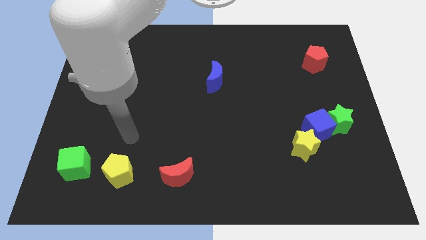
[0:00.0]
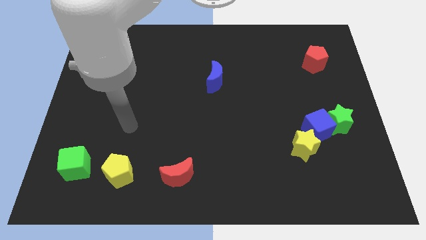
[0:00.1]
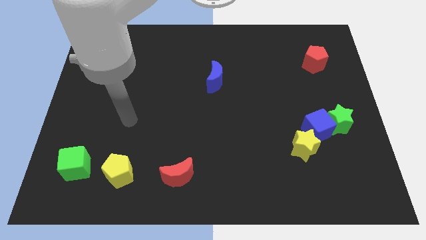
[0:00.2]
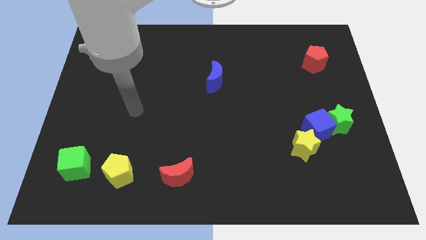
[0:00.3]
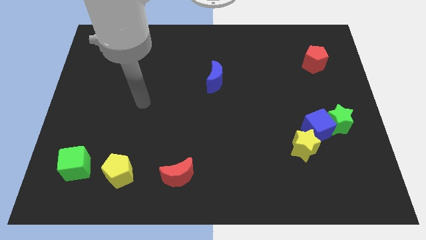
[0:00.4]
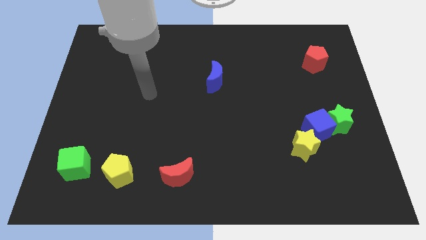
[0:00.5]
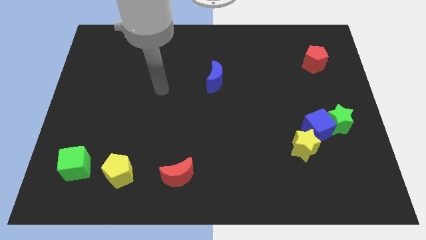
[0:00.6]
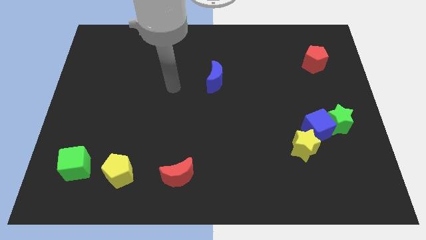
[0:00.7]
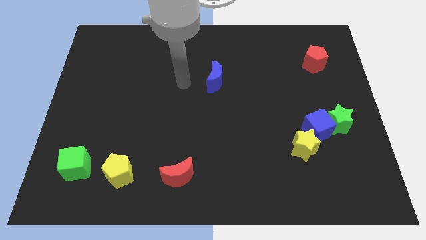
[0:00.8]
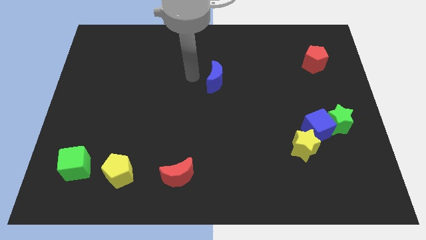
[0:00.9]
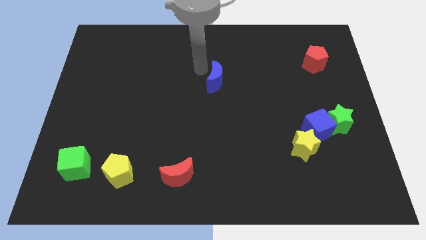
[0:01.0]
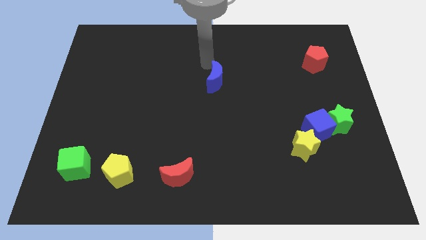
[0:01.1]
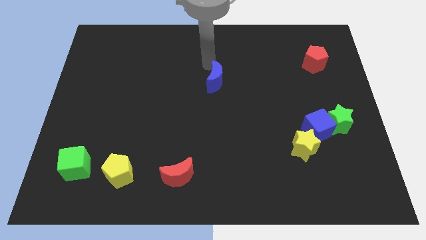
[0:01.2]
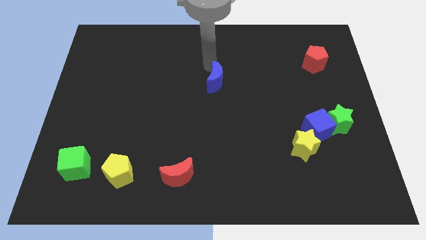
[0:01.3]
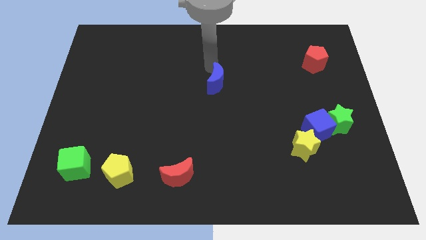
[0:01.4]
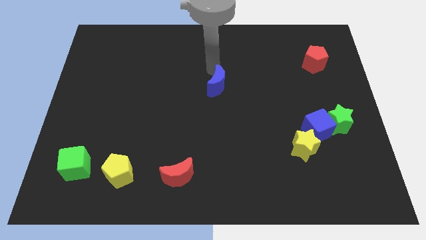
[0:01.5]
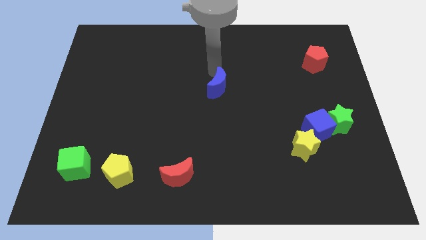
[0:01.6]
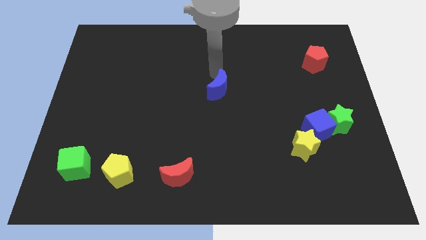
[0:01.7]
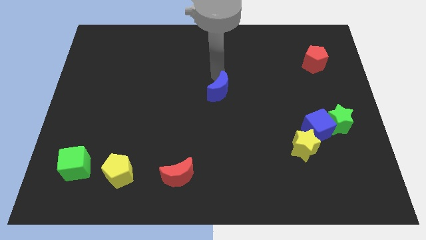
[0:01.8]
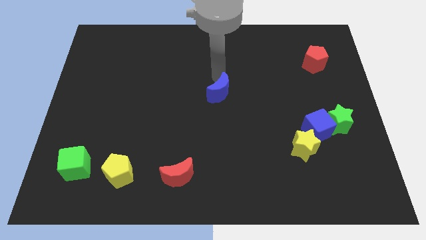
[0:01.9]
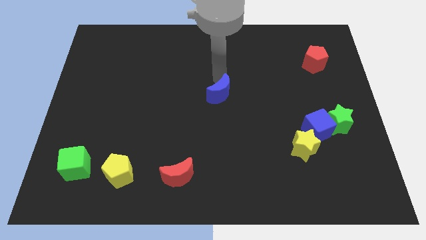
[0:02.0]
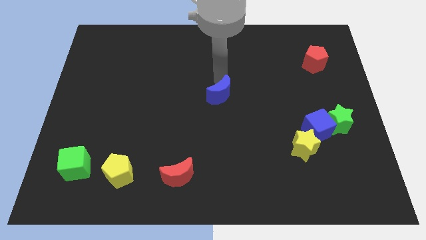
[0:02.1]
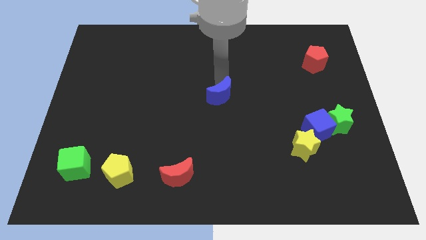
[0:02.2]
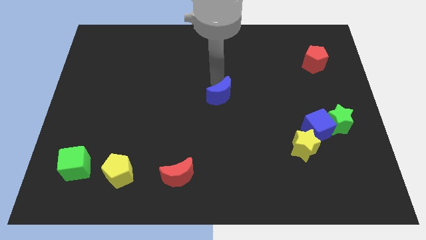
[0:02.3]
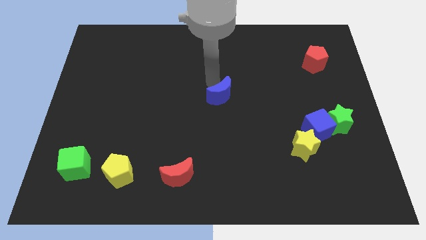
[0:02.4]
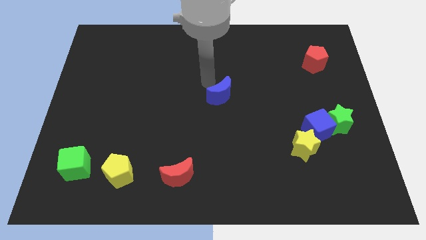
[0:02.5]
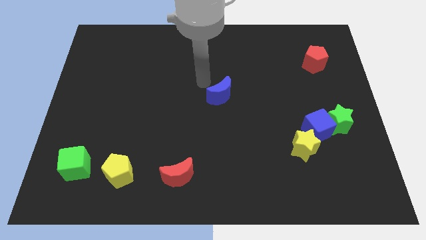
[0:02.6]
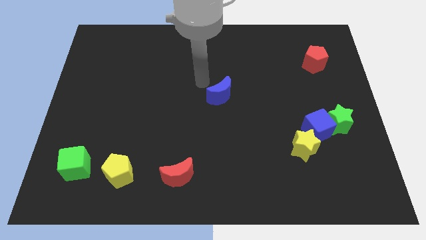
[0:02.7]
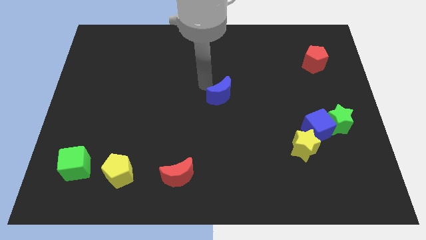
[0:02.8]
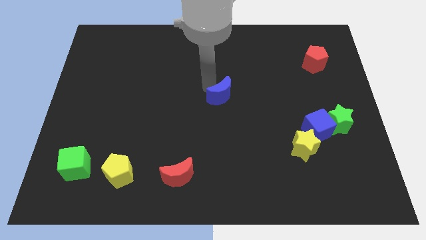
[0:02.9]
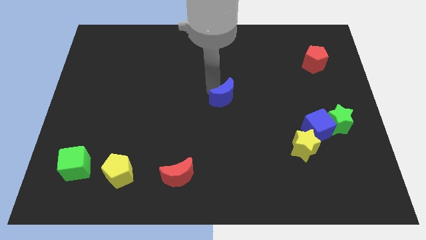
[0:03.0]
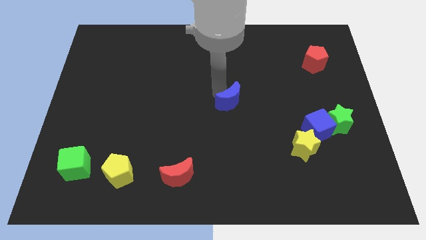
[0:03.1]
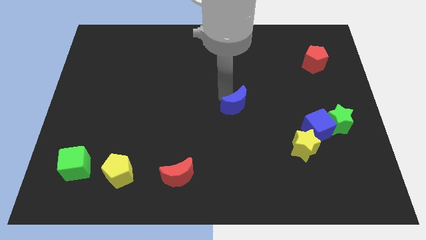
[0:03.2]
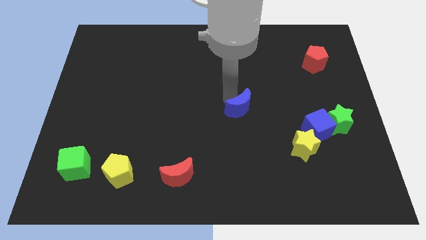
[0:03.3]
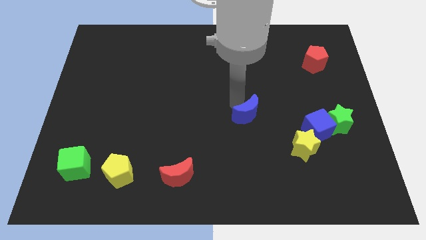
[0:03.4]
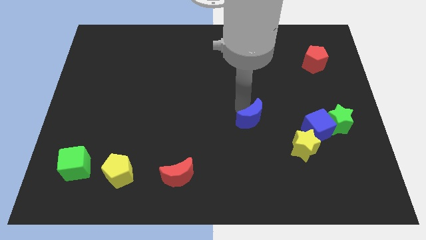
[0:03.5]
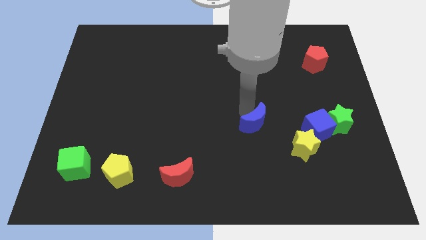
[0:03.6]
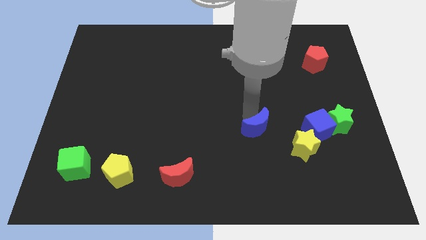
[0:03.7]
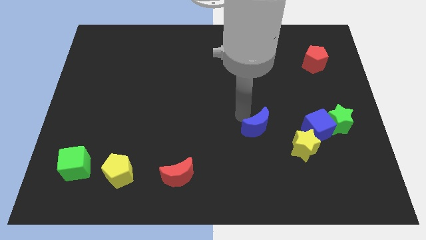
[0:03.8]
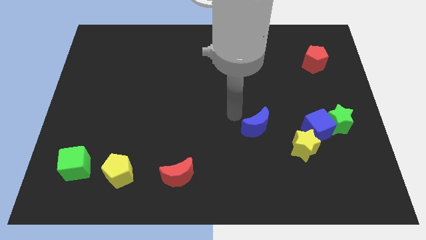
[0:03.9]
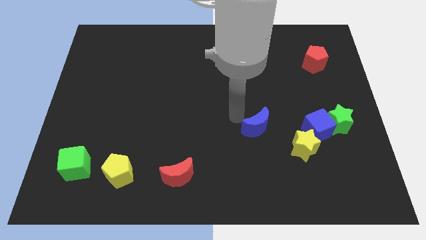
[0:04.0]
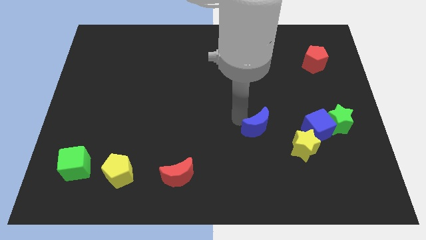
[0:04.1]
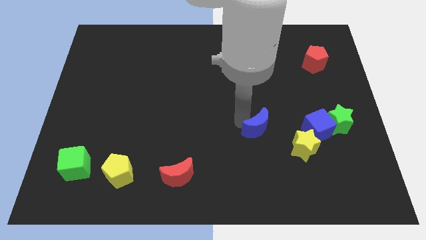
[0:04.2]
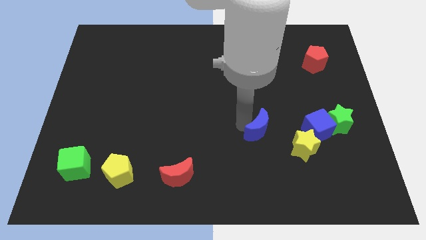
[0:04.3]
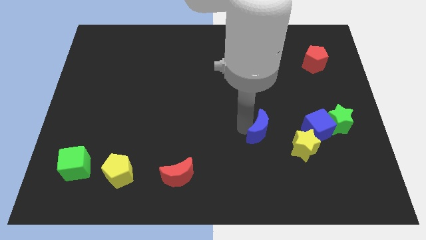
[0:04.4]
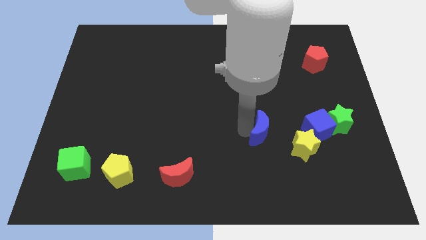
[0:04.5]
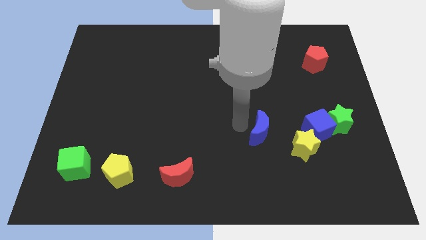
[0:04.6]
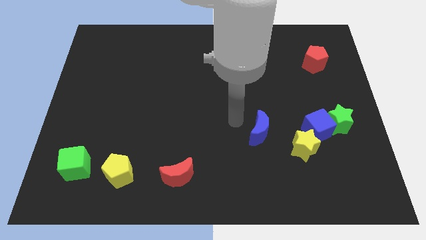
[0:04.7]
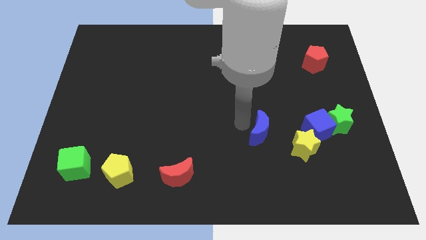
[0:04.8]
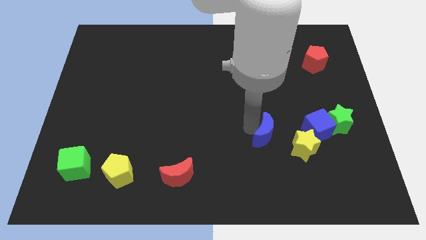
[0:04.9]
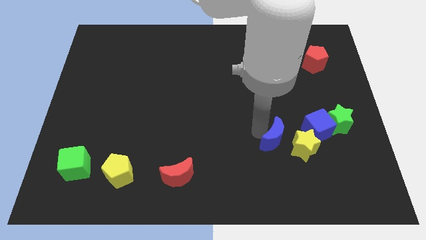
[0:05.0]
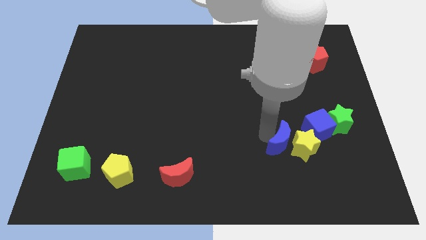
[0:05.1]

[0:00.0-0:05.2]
push the blue moon to the bottom left side of the blue cube

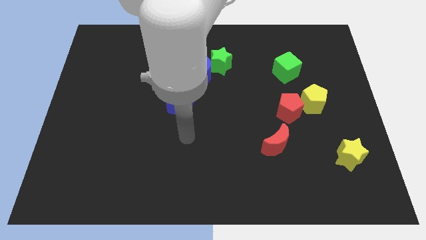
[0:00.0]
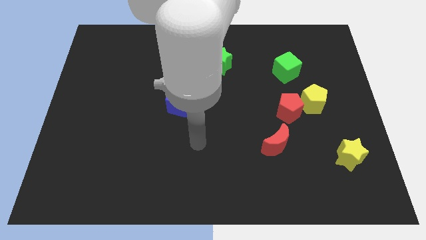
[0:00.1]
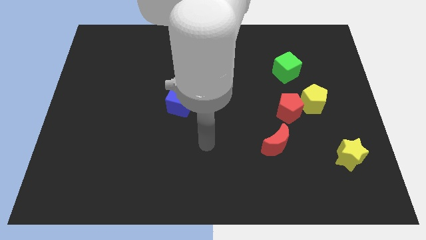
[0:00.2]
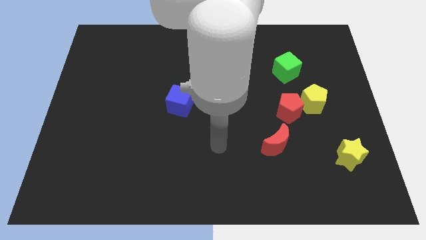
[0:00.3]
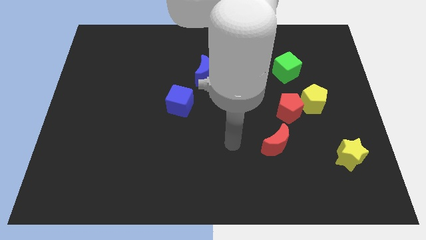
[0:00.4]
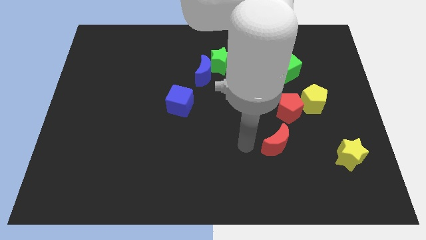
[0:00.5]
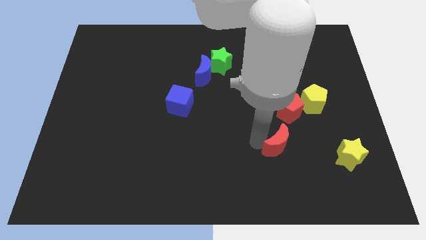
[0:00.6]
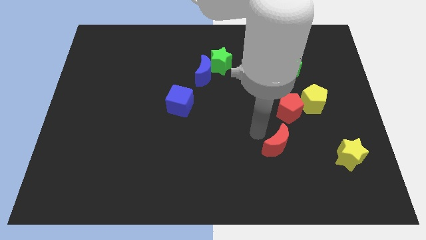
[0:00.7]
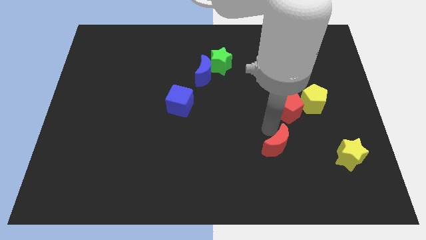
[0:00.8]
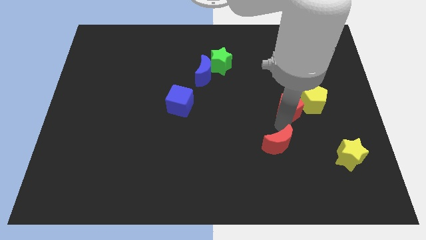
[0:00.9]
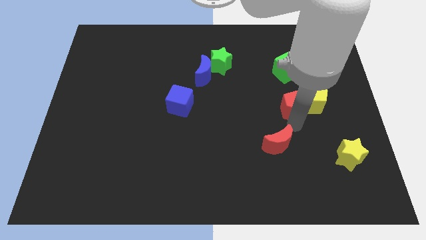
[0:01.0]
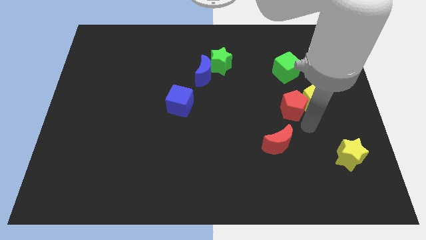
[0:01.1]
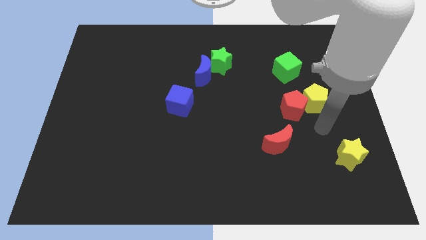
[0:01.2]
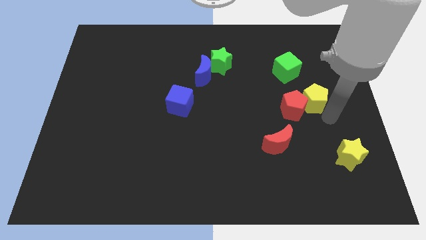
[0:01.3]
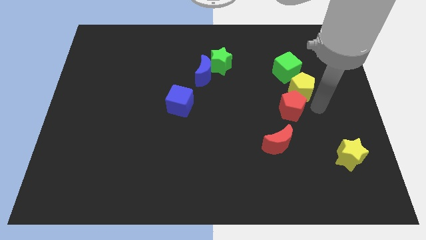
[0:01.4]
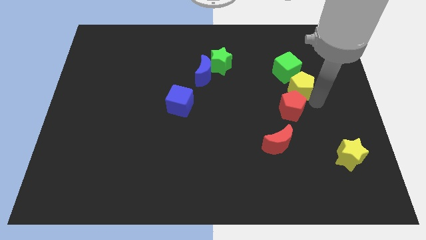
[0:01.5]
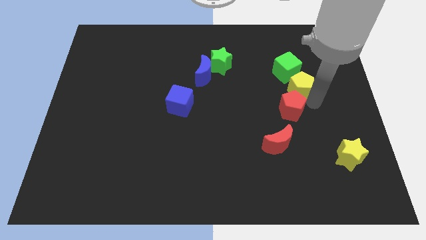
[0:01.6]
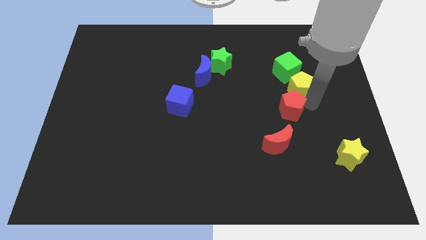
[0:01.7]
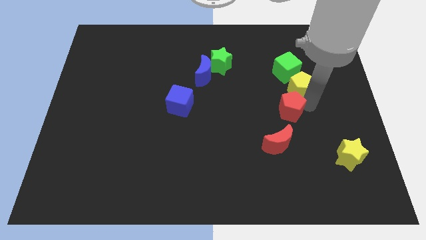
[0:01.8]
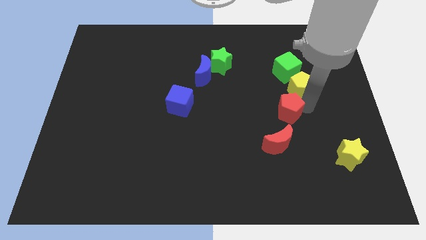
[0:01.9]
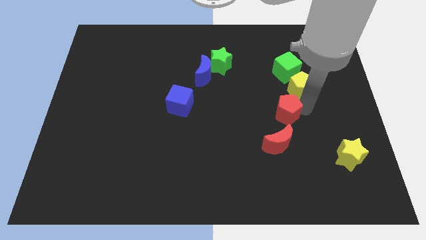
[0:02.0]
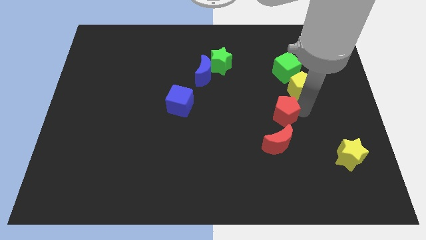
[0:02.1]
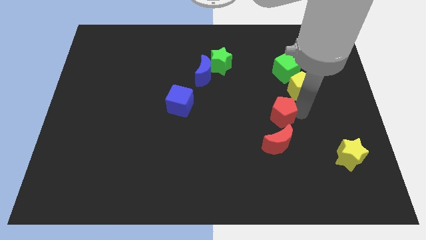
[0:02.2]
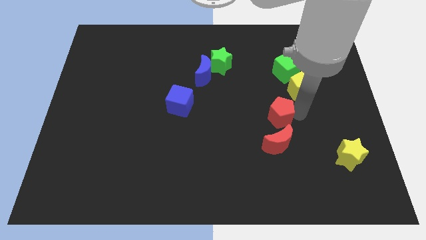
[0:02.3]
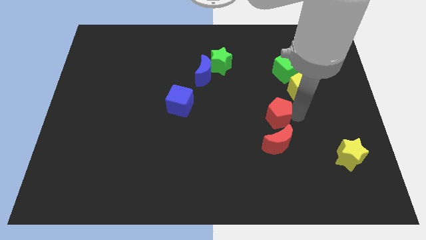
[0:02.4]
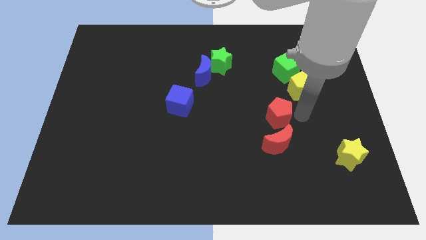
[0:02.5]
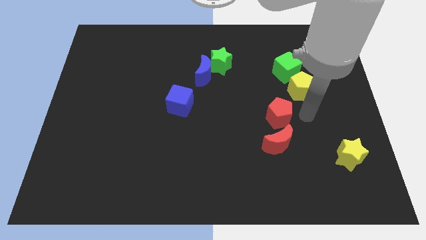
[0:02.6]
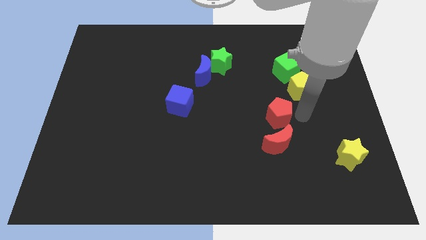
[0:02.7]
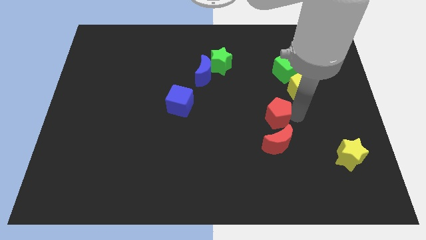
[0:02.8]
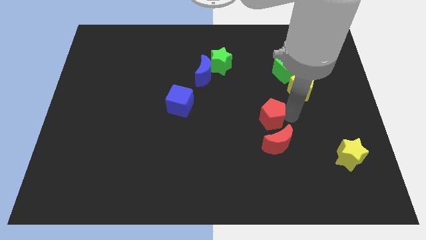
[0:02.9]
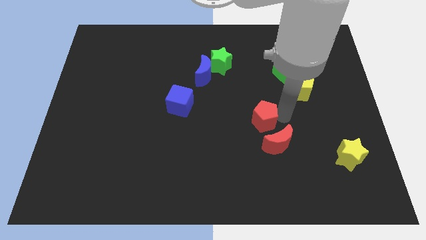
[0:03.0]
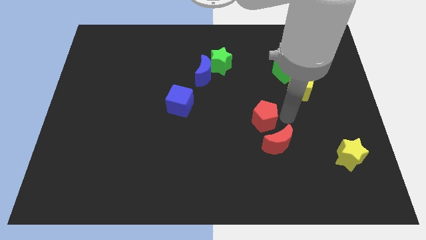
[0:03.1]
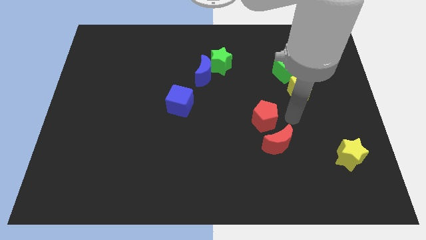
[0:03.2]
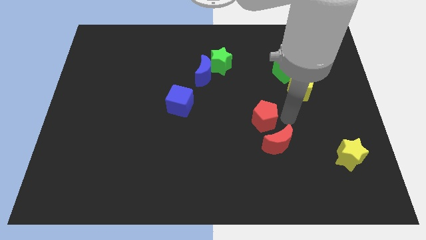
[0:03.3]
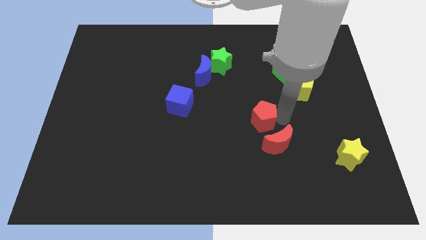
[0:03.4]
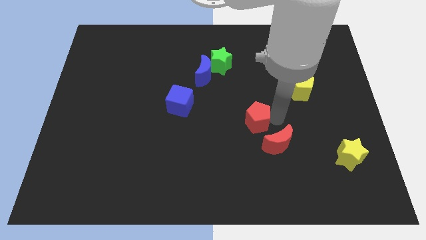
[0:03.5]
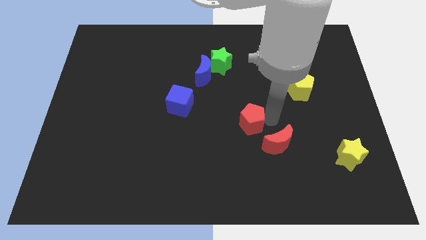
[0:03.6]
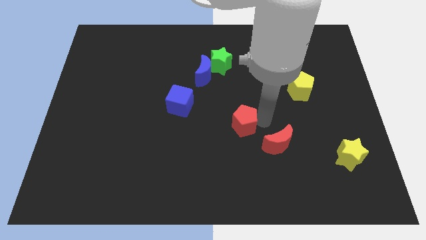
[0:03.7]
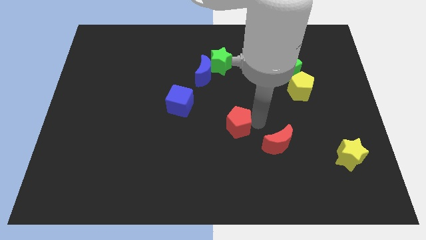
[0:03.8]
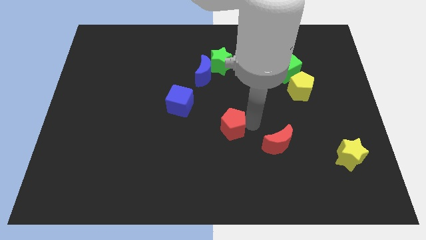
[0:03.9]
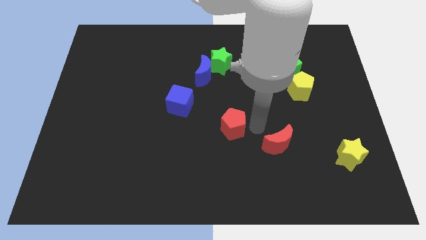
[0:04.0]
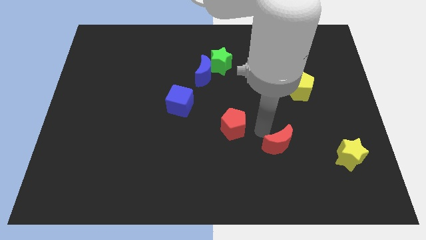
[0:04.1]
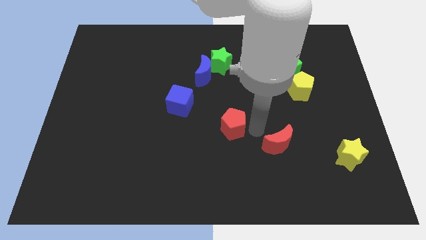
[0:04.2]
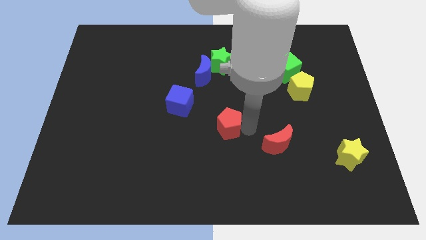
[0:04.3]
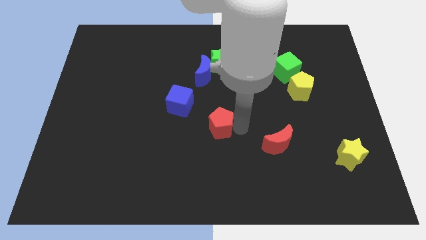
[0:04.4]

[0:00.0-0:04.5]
slide the red pentagon to the bottom right side of the blue cube
